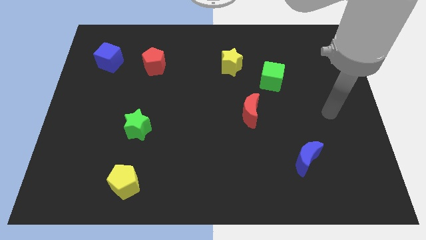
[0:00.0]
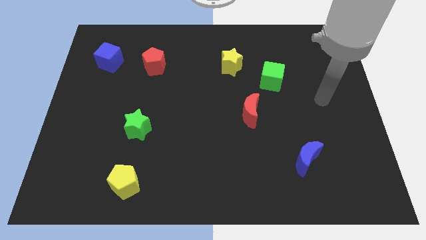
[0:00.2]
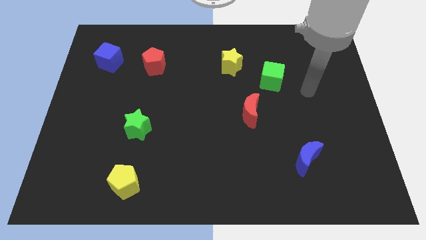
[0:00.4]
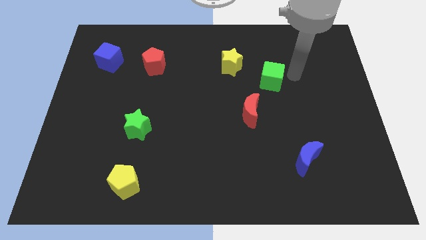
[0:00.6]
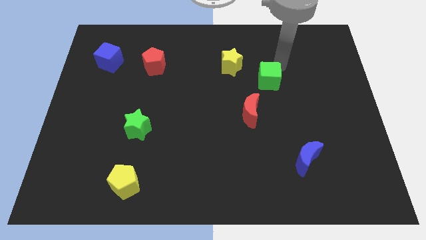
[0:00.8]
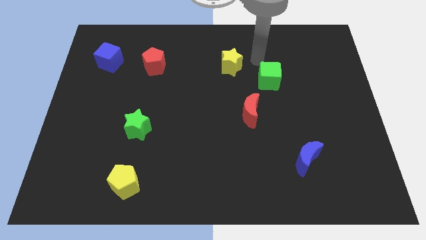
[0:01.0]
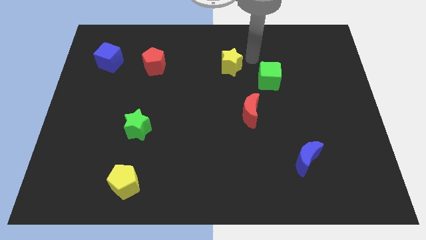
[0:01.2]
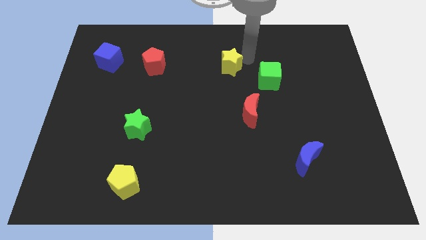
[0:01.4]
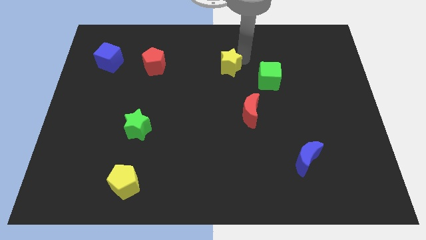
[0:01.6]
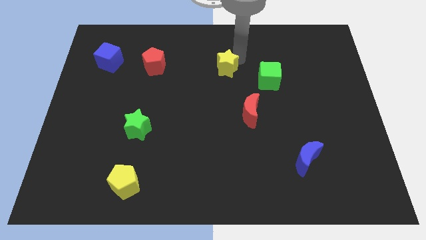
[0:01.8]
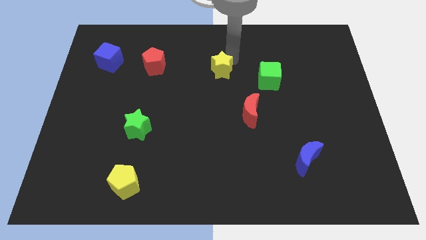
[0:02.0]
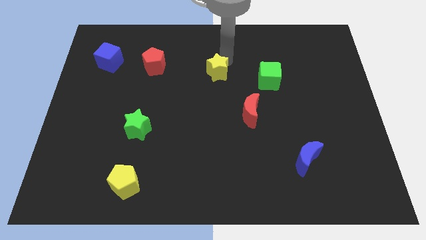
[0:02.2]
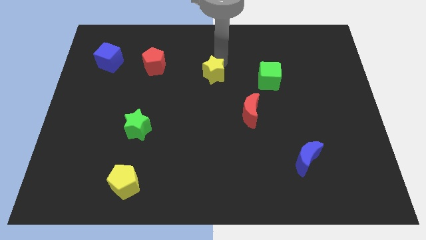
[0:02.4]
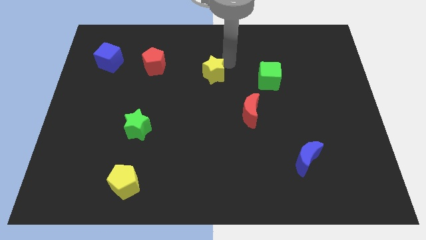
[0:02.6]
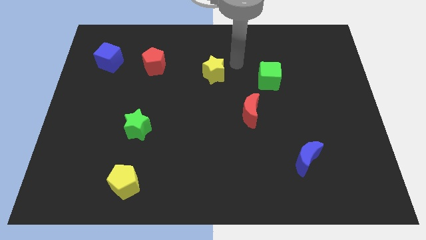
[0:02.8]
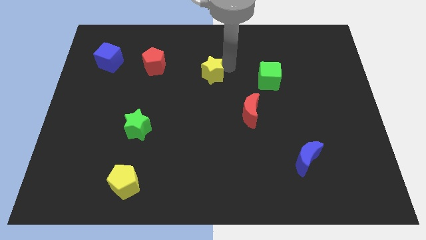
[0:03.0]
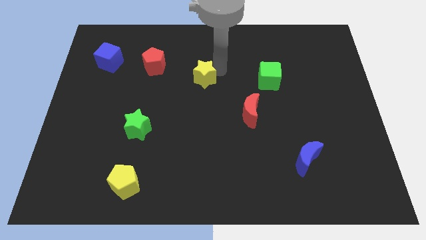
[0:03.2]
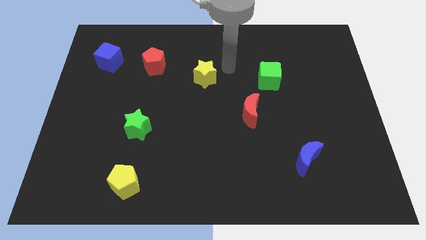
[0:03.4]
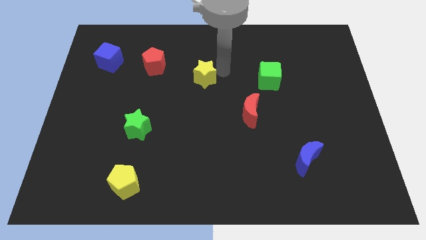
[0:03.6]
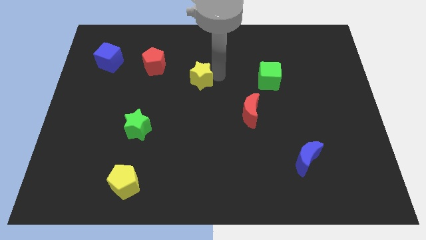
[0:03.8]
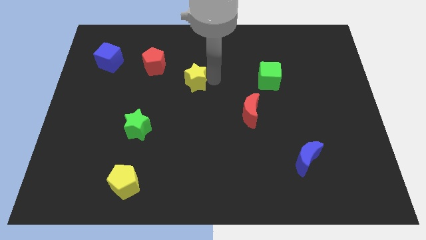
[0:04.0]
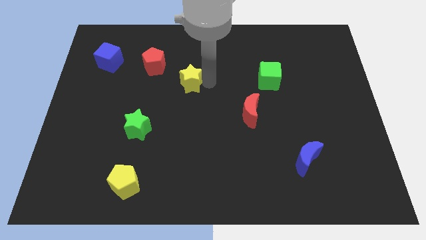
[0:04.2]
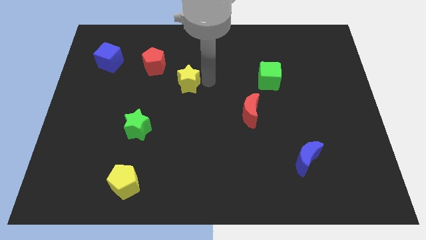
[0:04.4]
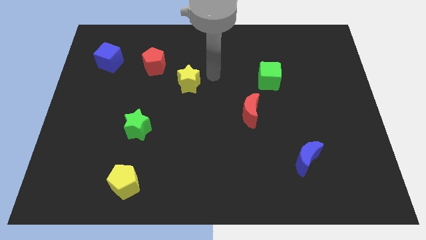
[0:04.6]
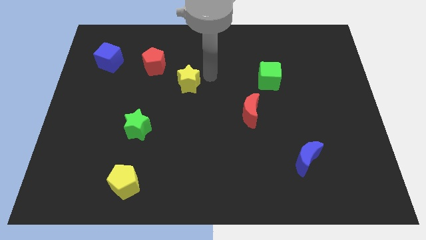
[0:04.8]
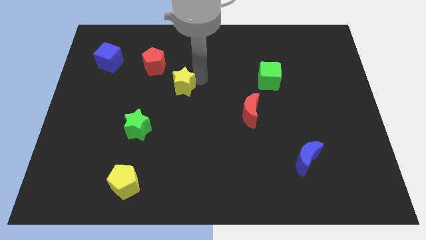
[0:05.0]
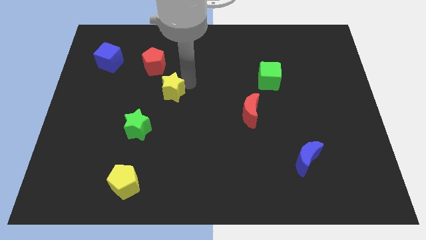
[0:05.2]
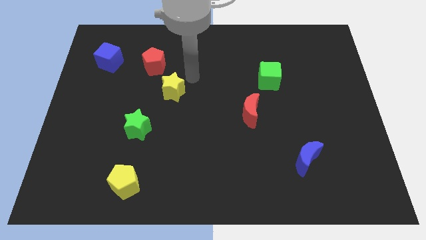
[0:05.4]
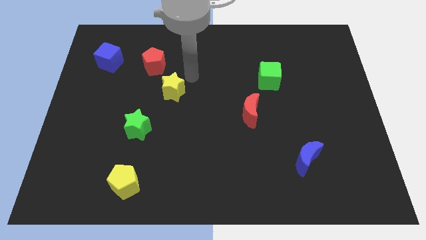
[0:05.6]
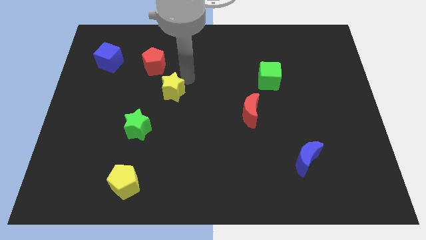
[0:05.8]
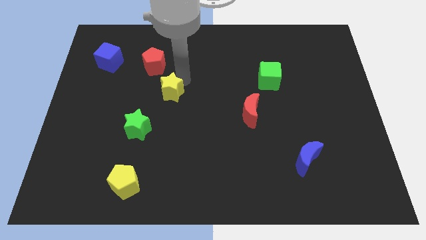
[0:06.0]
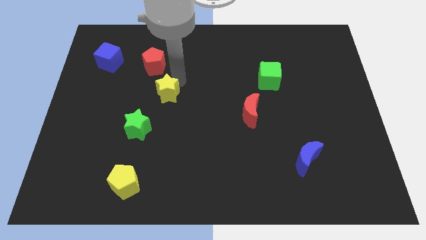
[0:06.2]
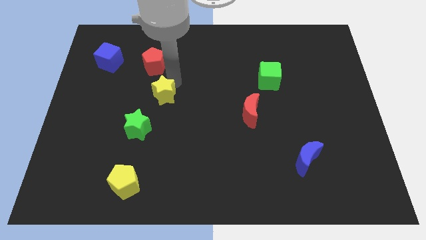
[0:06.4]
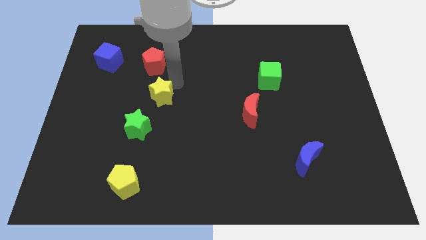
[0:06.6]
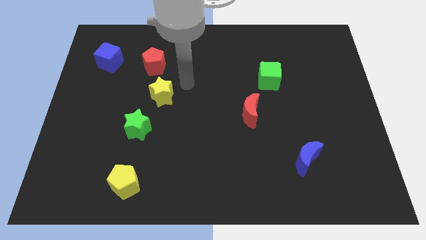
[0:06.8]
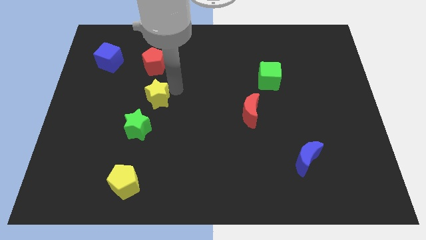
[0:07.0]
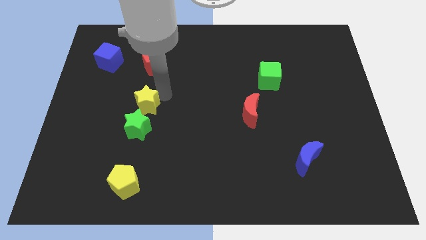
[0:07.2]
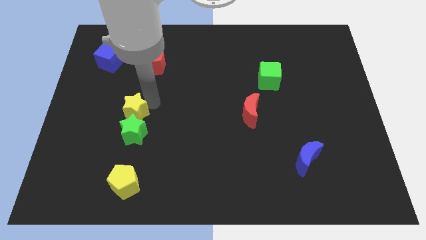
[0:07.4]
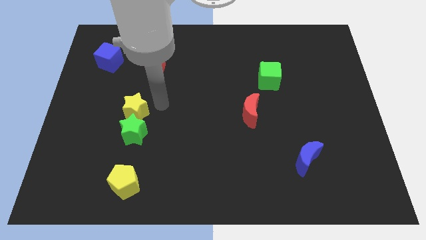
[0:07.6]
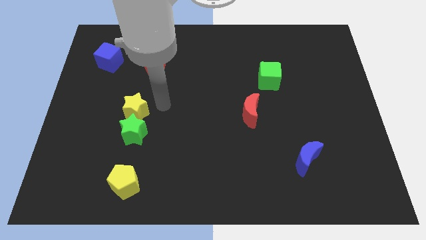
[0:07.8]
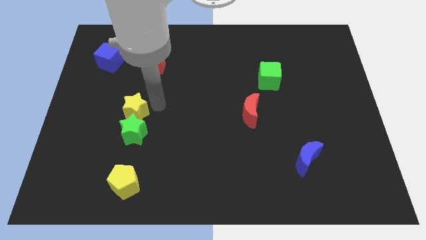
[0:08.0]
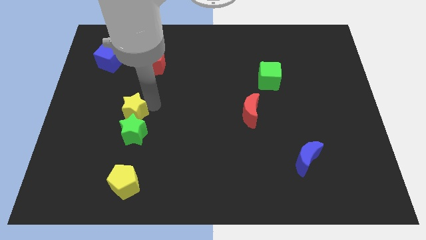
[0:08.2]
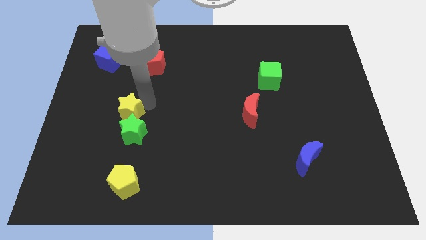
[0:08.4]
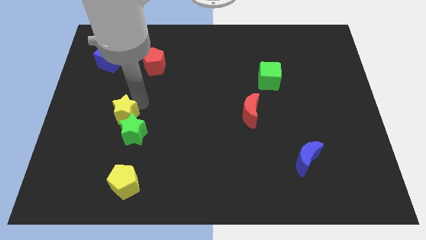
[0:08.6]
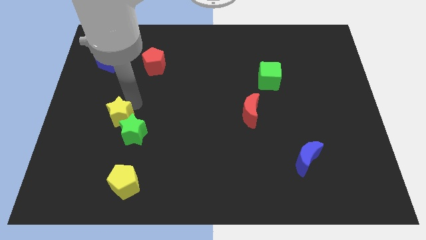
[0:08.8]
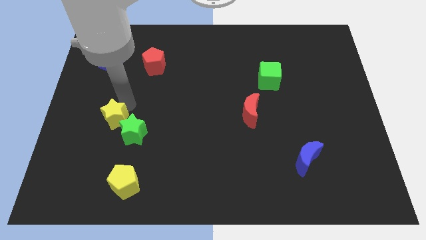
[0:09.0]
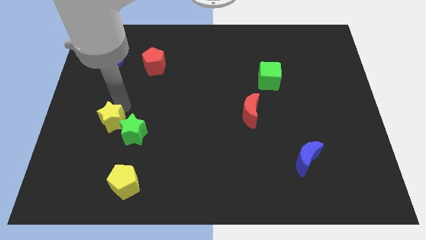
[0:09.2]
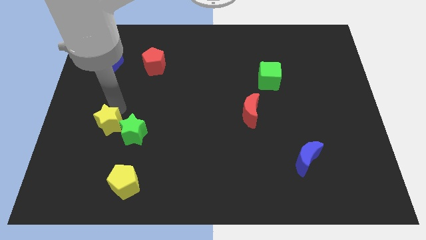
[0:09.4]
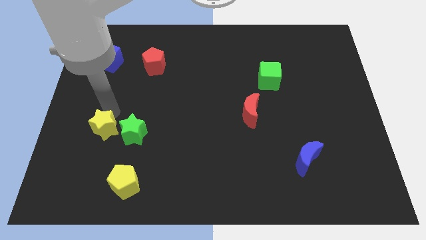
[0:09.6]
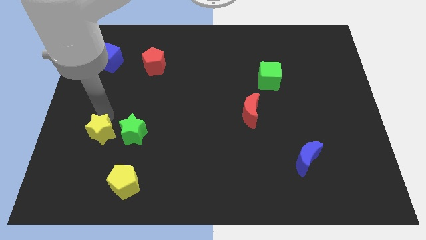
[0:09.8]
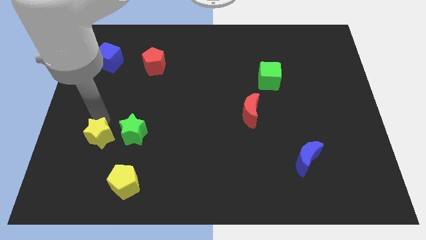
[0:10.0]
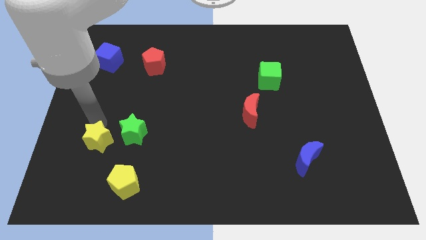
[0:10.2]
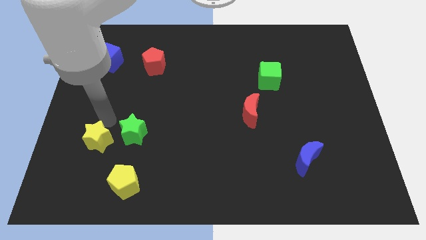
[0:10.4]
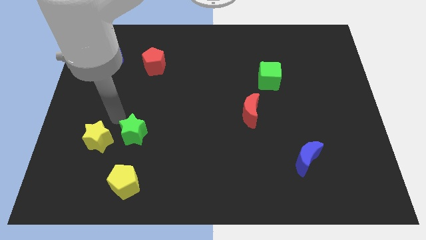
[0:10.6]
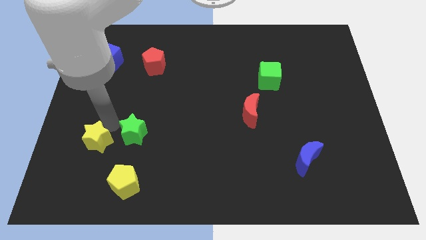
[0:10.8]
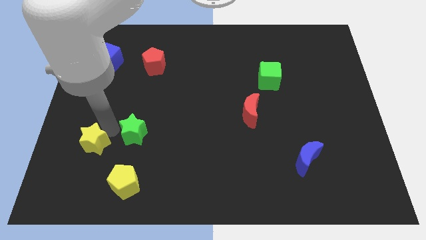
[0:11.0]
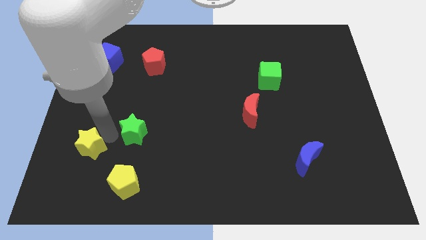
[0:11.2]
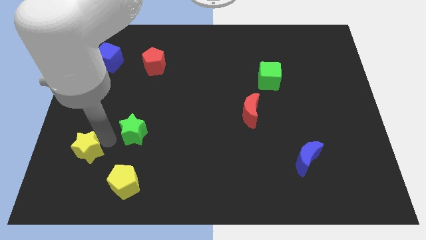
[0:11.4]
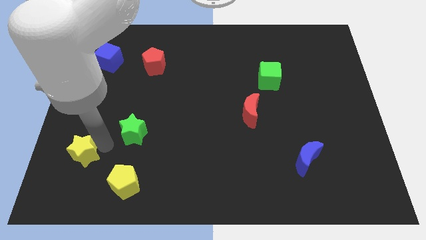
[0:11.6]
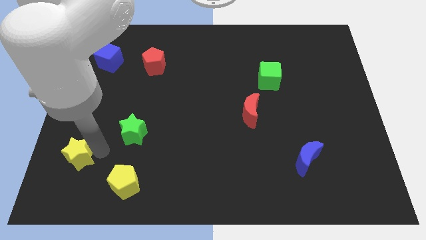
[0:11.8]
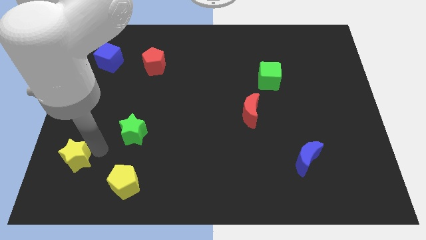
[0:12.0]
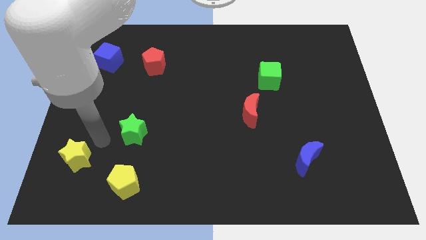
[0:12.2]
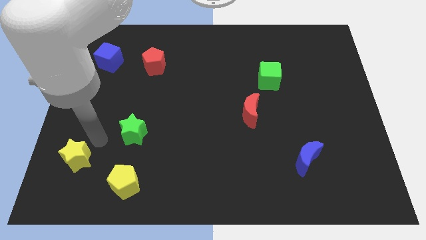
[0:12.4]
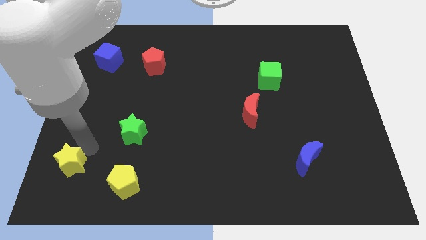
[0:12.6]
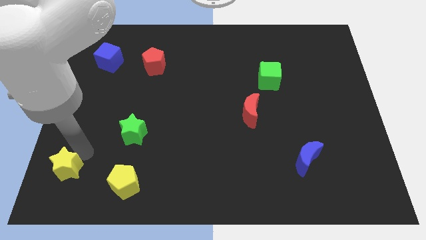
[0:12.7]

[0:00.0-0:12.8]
put the yellow star to the bottom left of the board

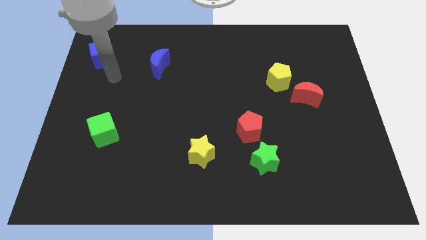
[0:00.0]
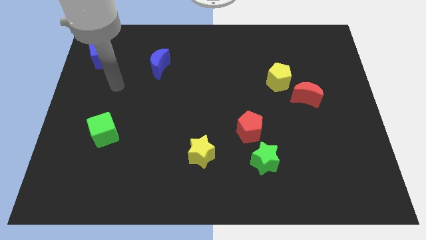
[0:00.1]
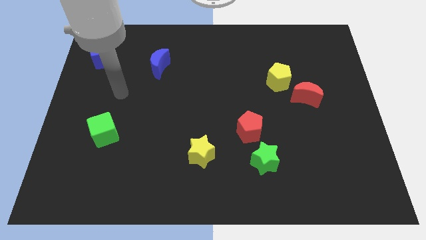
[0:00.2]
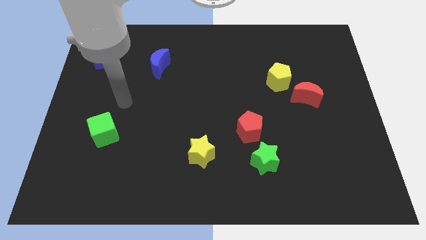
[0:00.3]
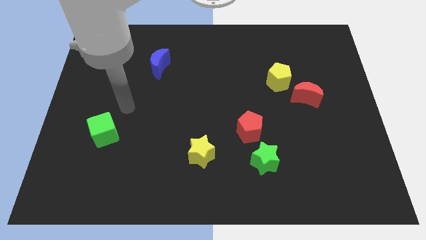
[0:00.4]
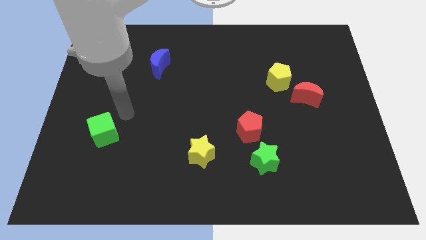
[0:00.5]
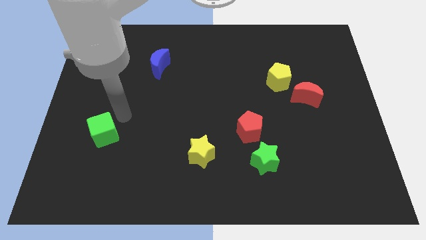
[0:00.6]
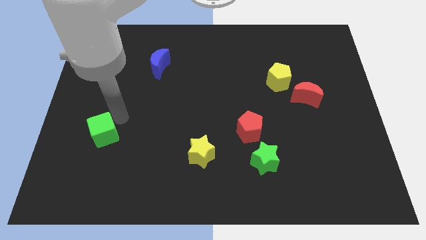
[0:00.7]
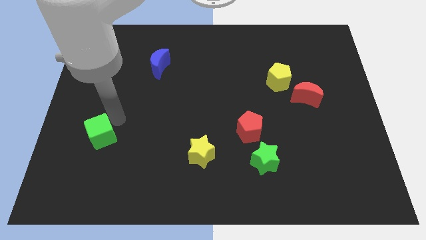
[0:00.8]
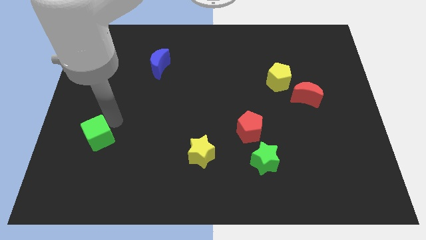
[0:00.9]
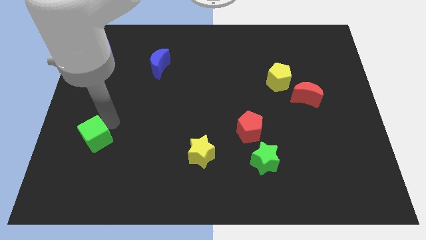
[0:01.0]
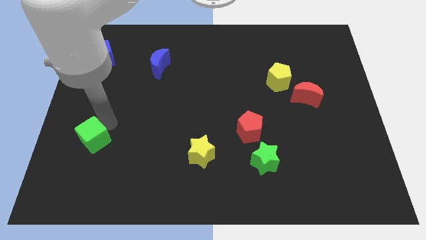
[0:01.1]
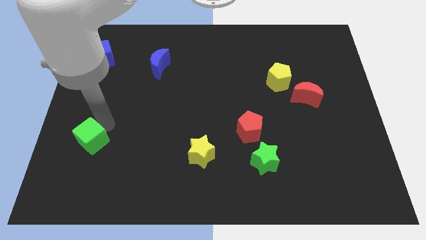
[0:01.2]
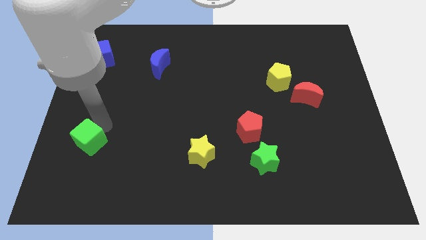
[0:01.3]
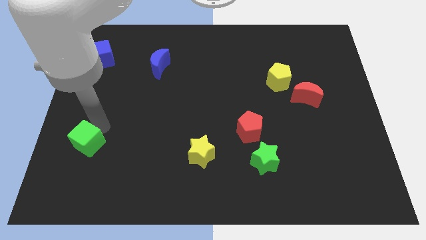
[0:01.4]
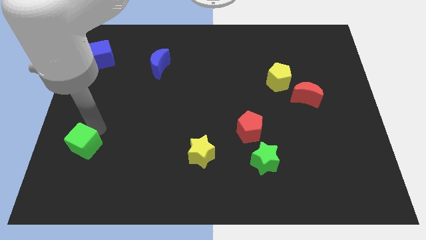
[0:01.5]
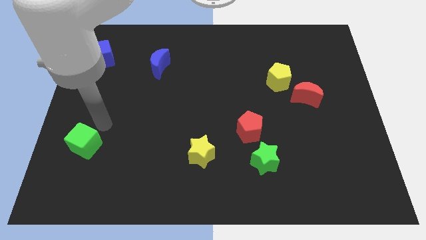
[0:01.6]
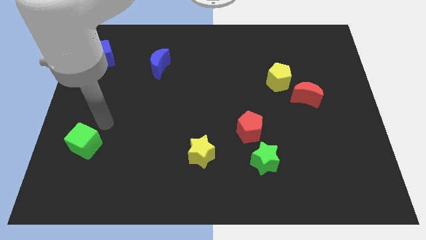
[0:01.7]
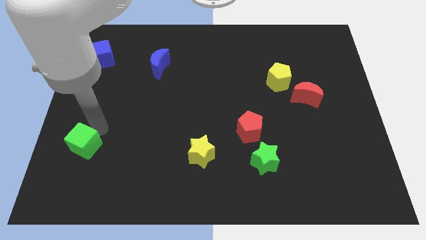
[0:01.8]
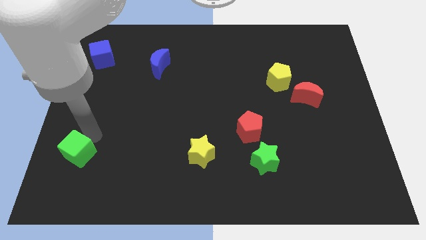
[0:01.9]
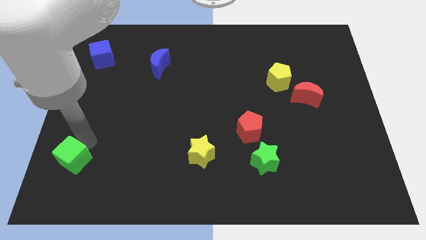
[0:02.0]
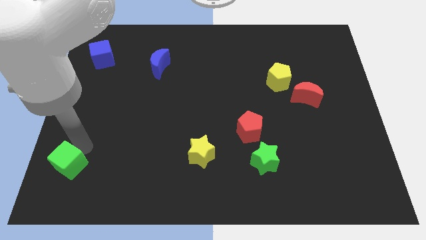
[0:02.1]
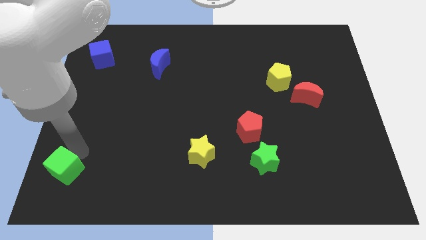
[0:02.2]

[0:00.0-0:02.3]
move the green cube to the bottom left
